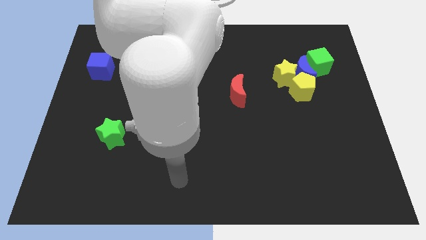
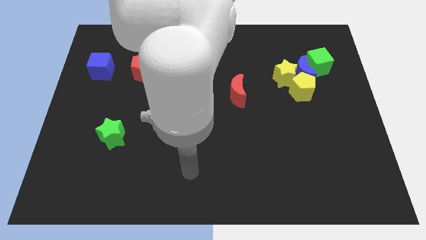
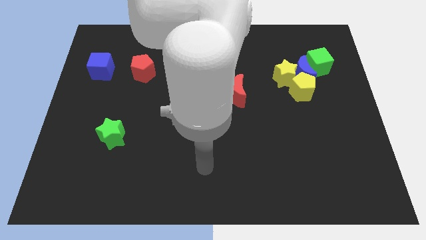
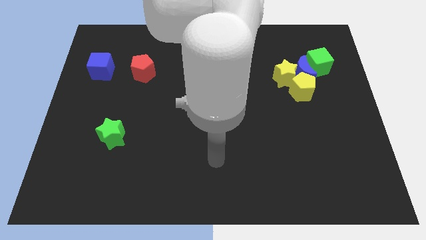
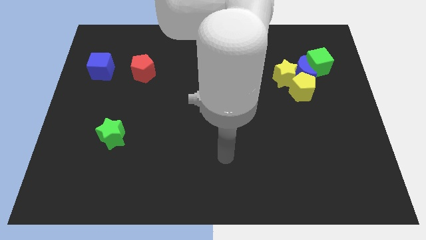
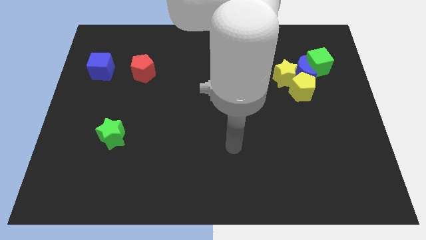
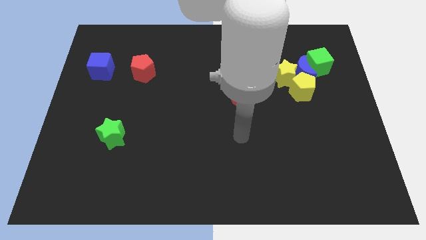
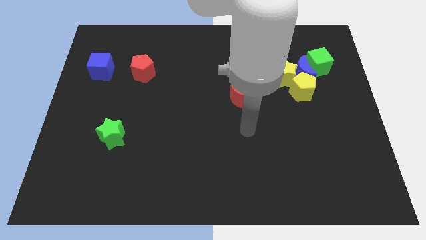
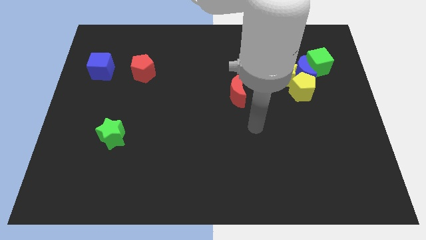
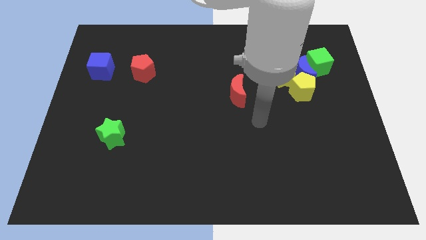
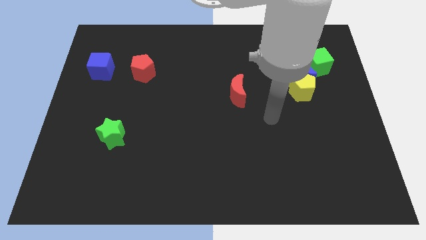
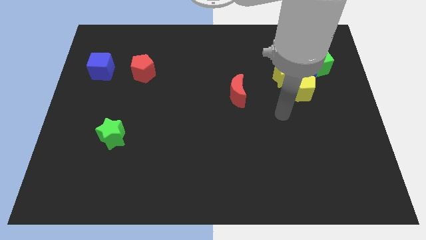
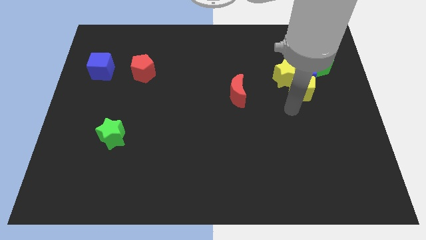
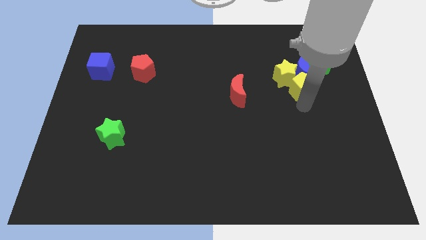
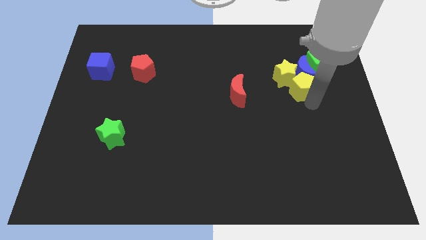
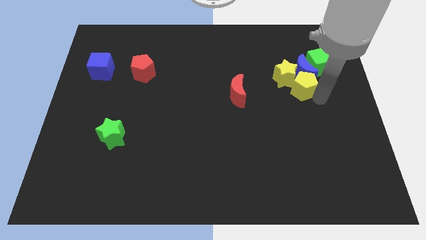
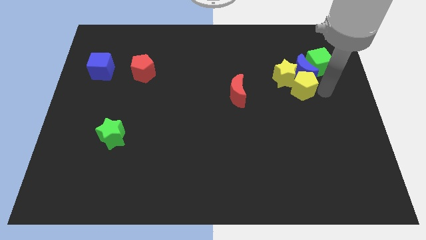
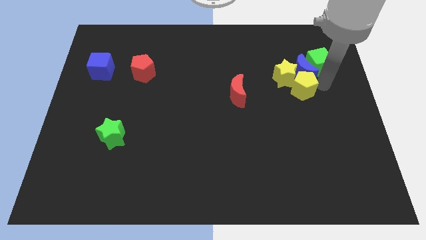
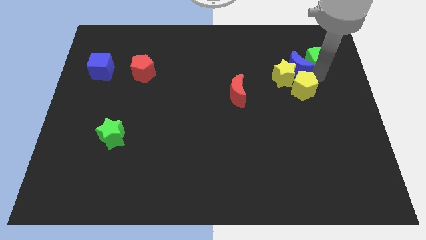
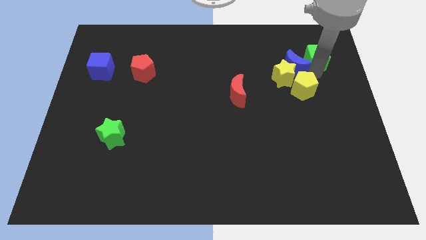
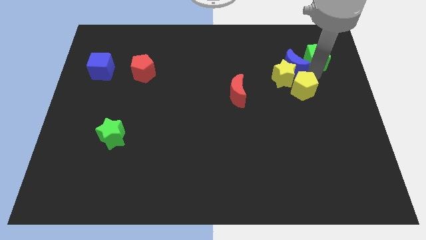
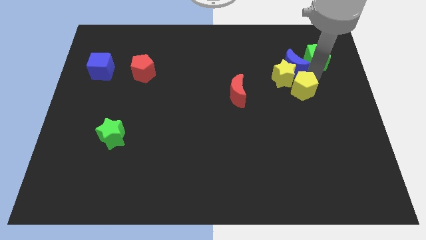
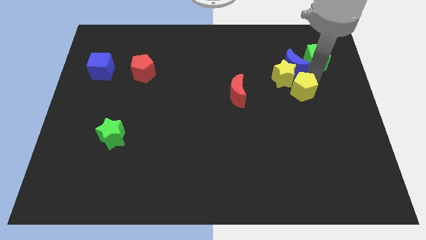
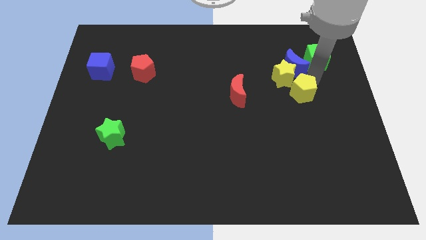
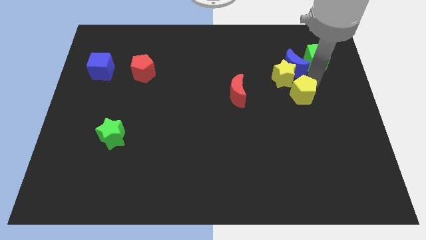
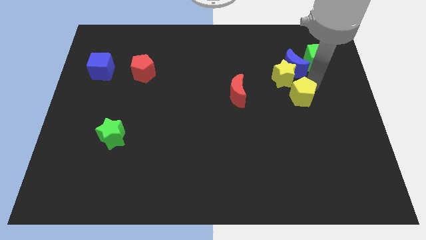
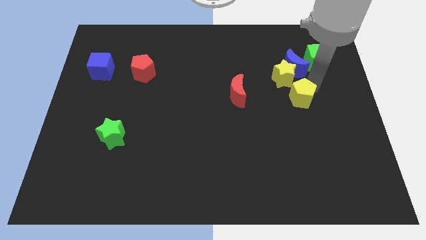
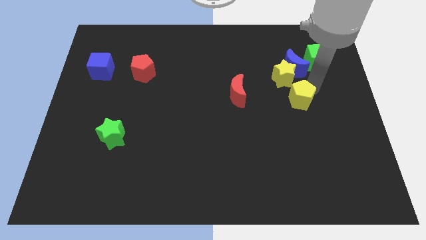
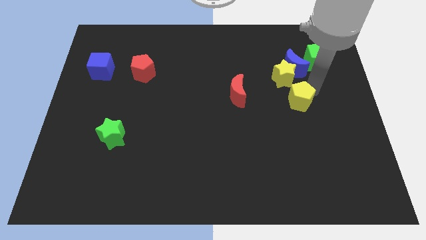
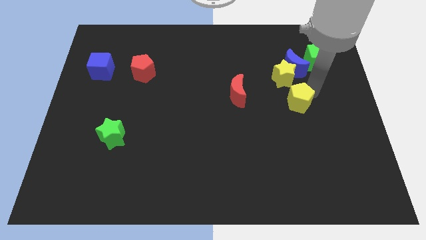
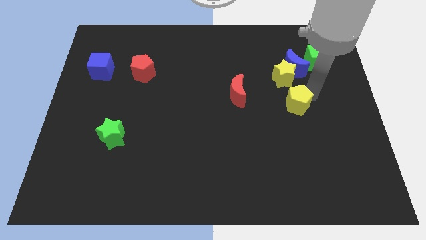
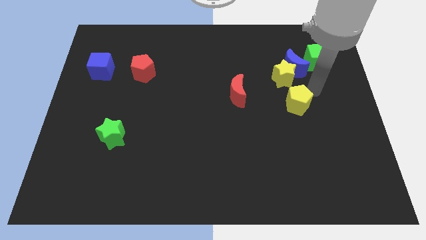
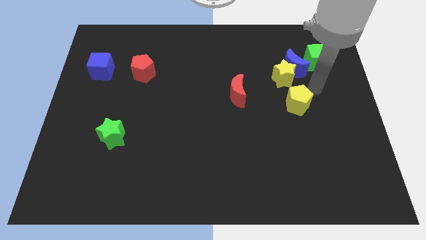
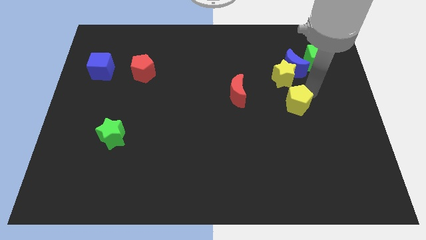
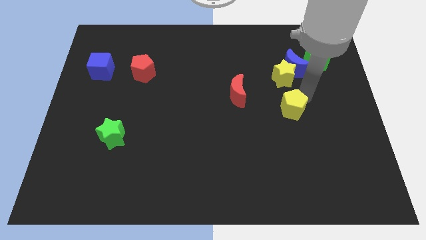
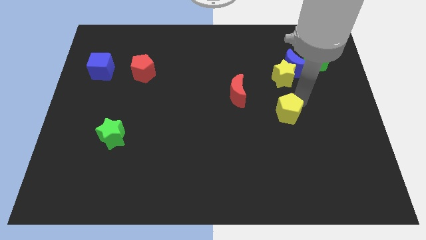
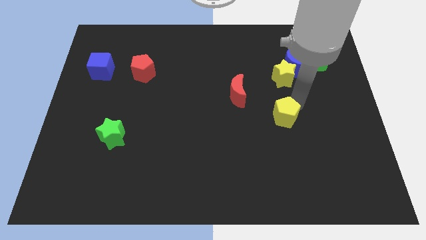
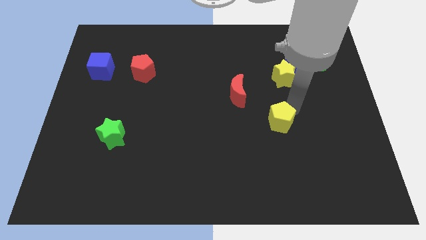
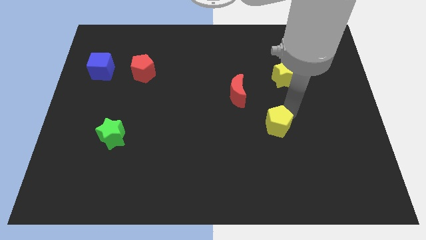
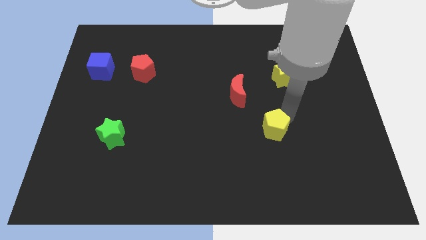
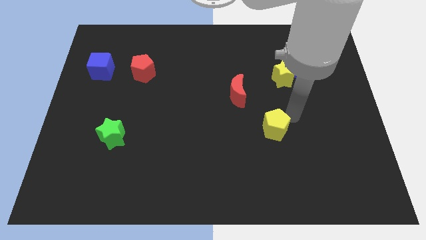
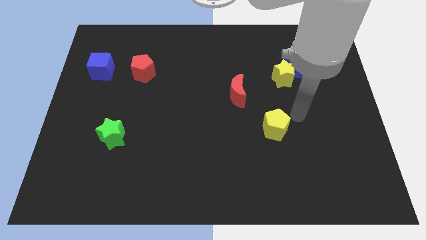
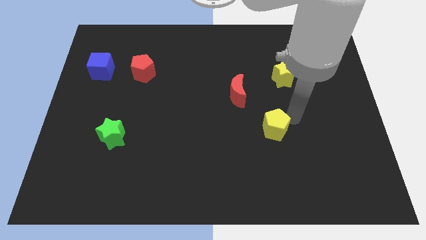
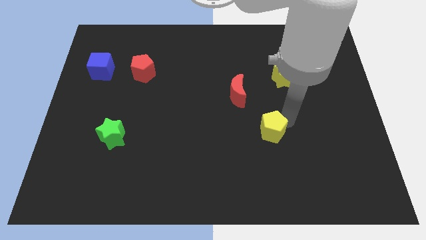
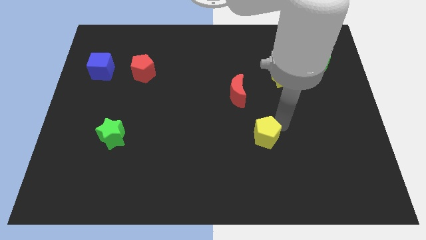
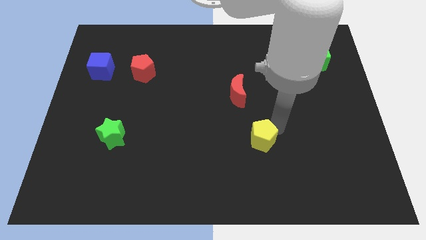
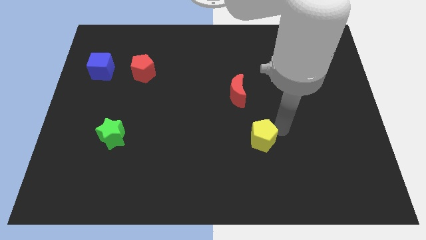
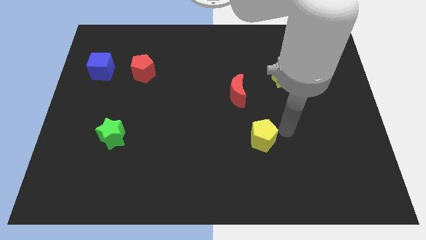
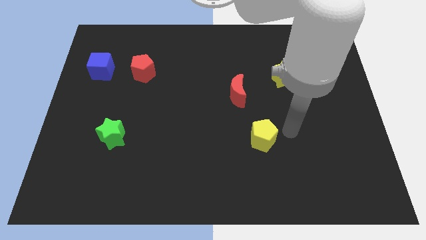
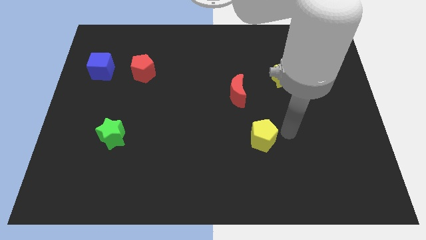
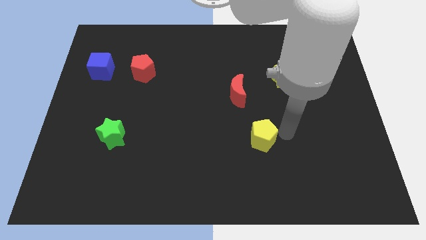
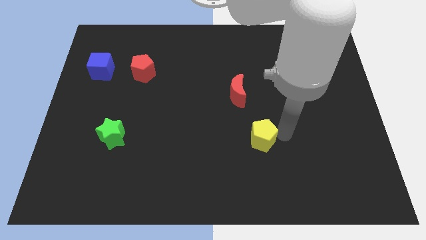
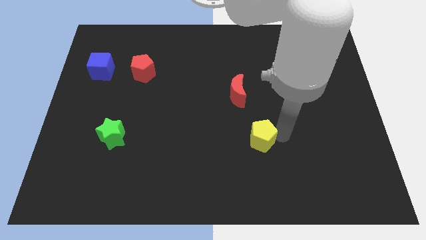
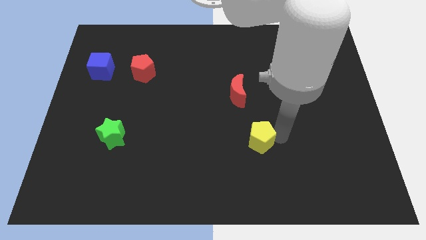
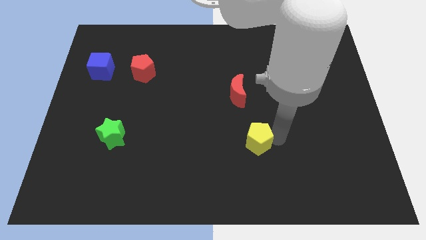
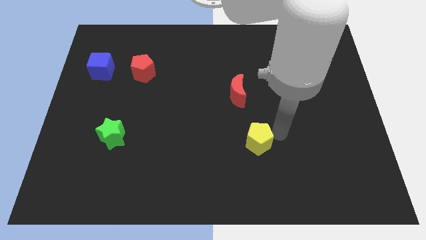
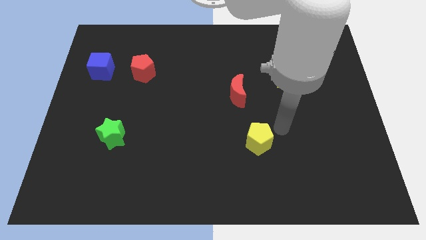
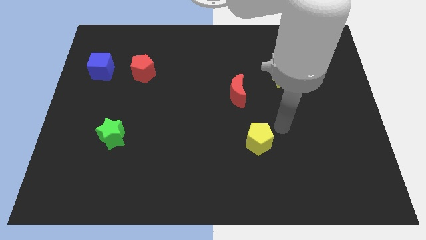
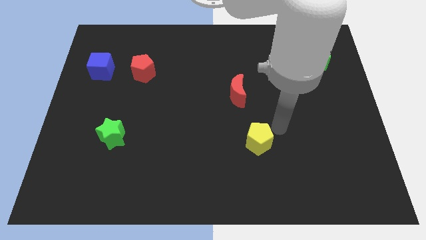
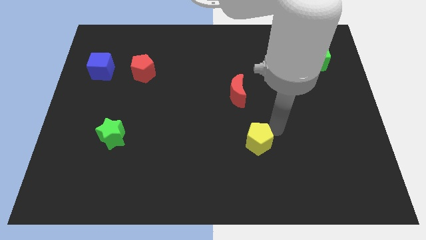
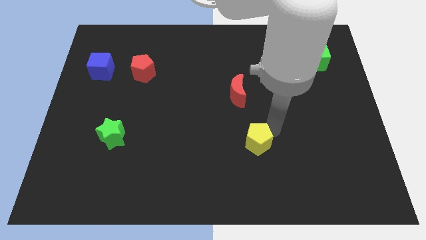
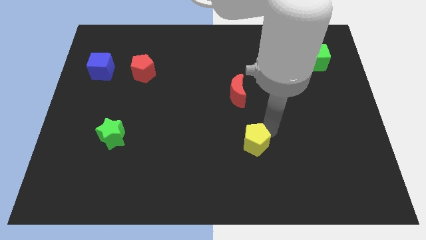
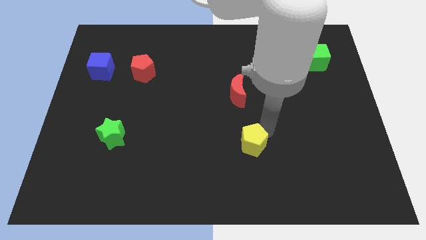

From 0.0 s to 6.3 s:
slide the yellow pentagon down and to the left diagonally

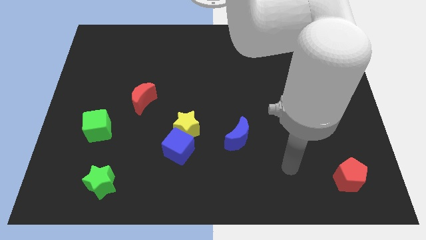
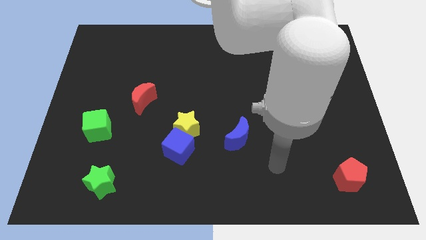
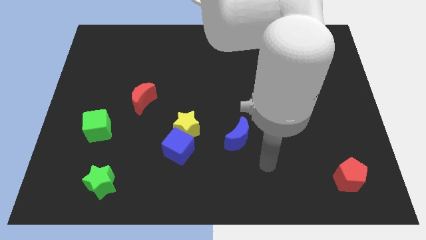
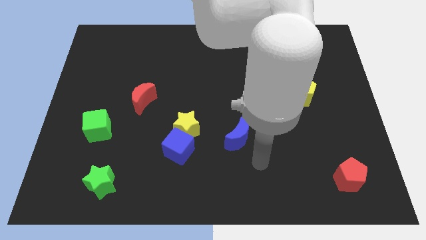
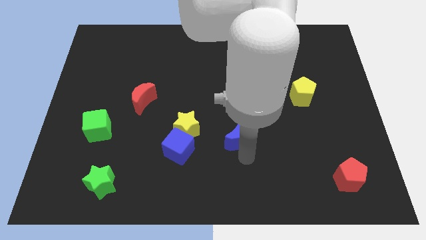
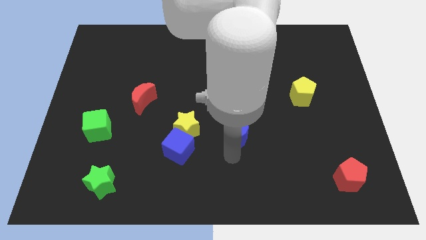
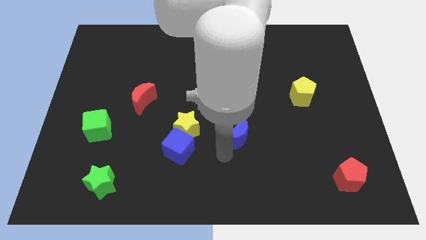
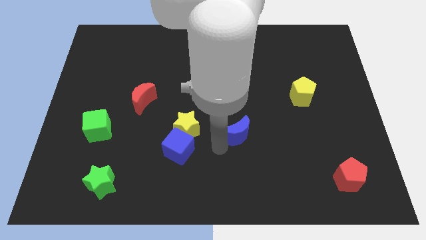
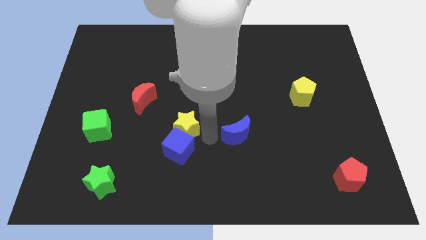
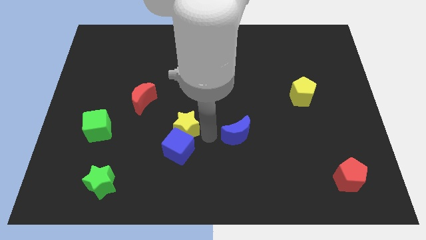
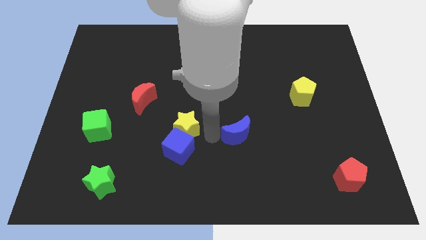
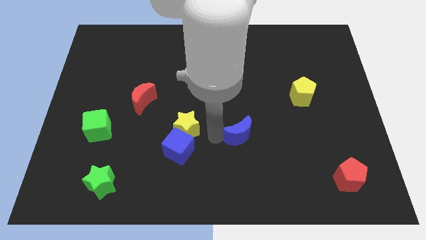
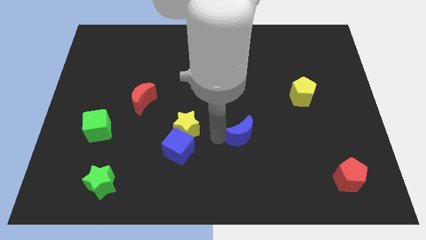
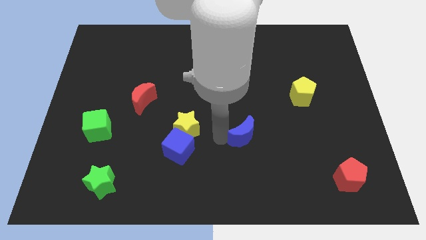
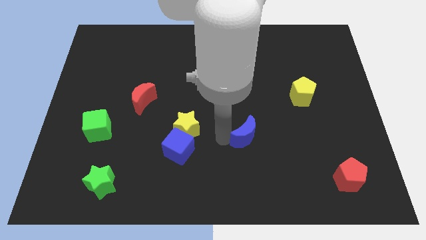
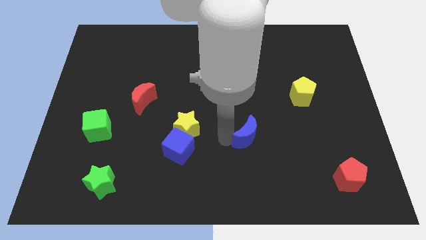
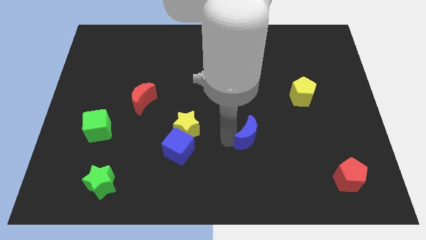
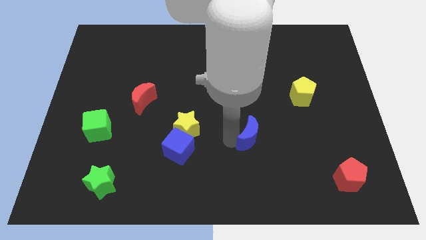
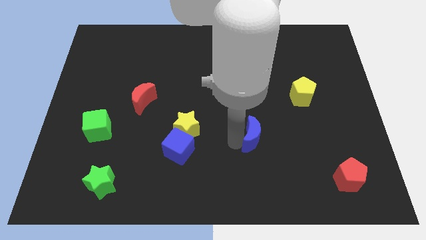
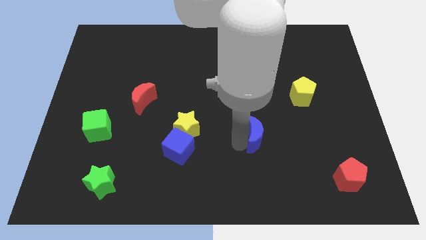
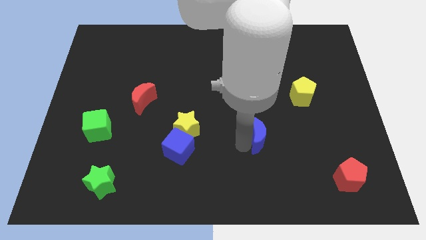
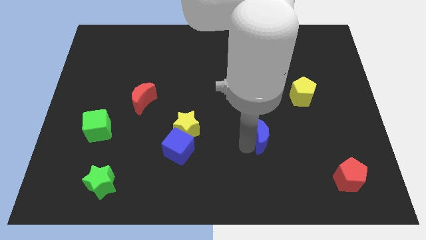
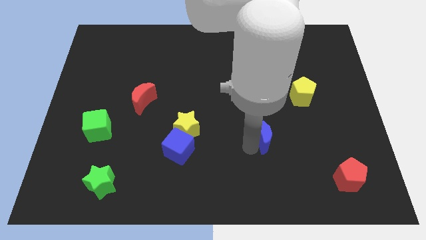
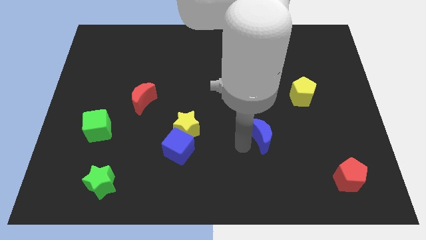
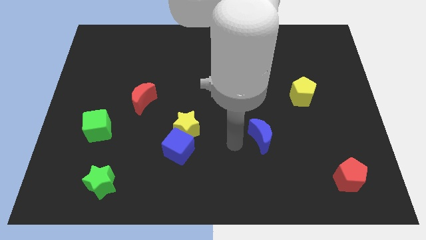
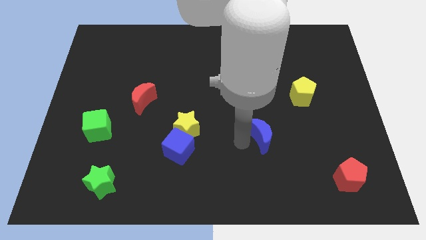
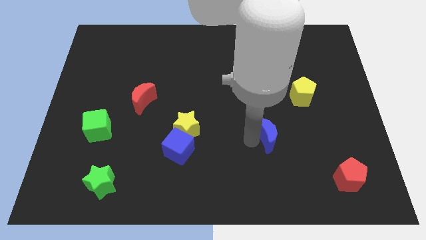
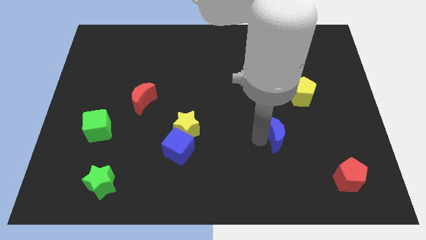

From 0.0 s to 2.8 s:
slide the blue moon right a bit
